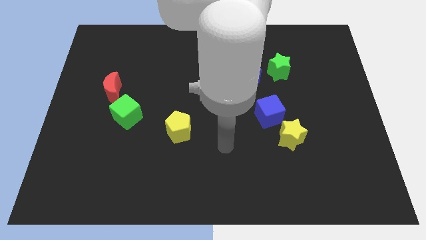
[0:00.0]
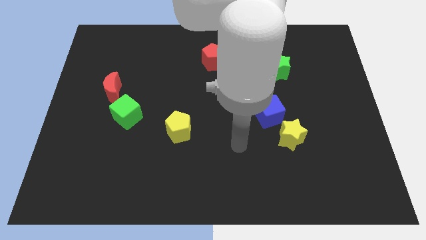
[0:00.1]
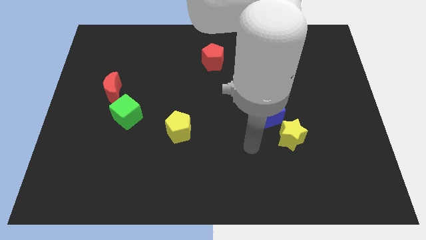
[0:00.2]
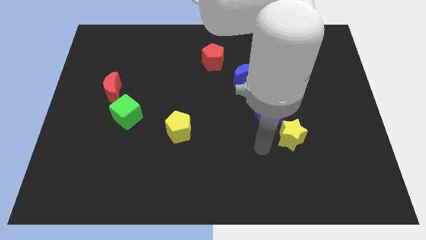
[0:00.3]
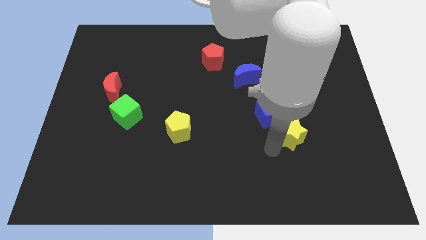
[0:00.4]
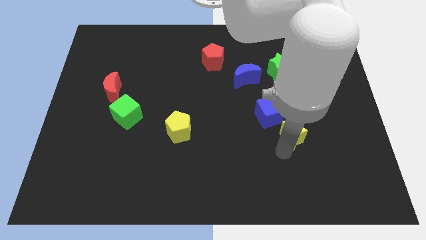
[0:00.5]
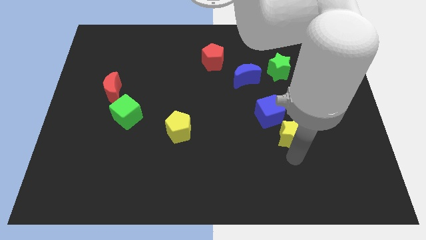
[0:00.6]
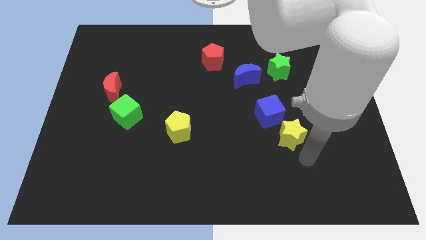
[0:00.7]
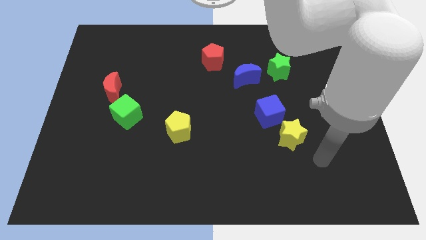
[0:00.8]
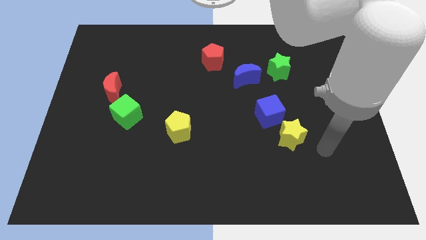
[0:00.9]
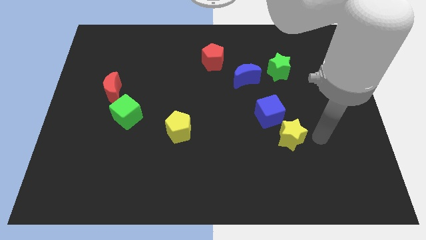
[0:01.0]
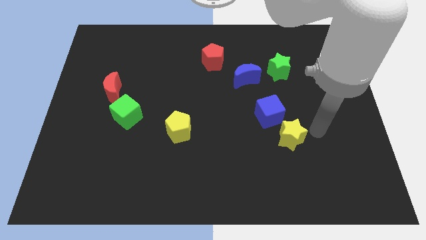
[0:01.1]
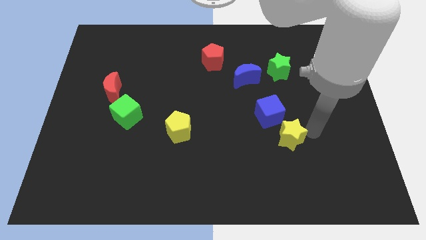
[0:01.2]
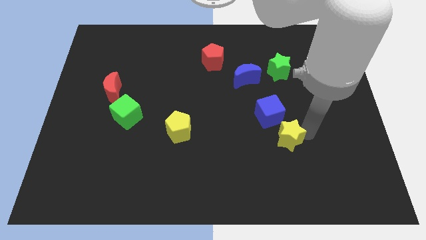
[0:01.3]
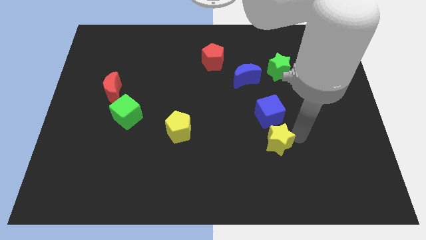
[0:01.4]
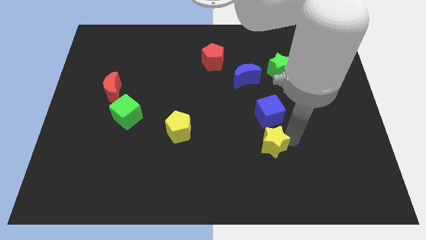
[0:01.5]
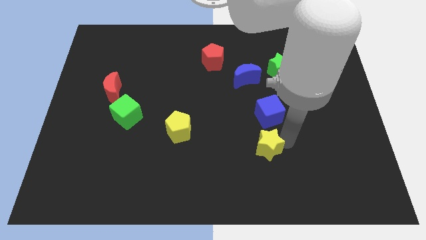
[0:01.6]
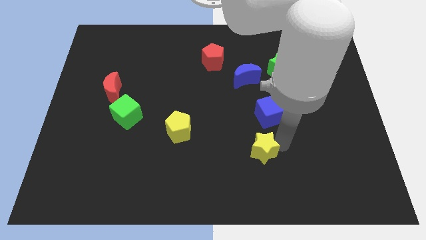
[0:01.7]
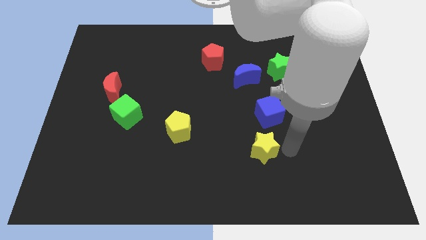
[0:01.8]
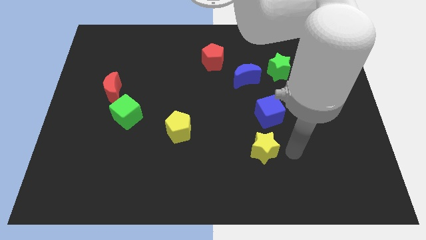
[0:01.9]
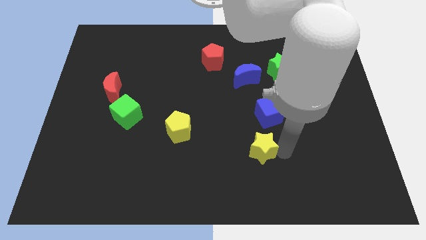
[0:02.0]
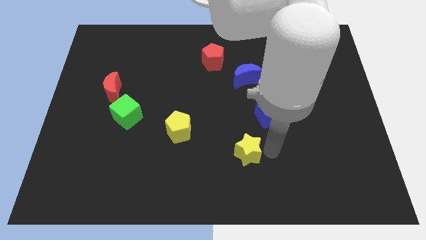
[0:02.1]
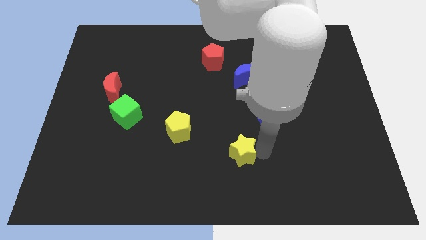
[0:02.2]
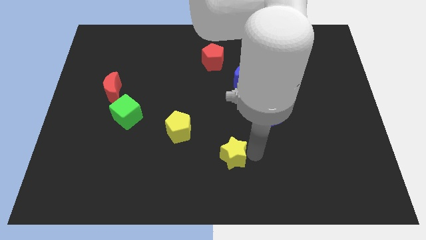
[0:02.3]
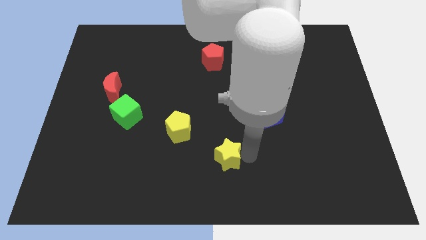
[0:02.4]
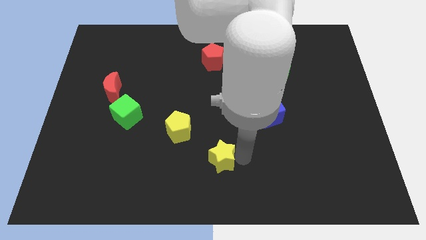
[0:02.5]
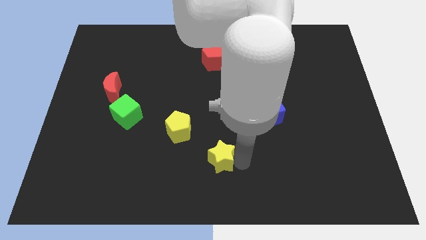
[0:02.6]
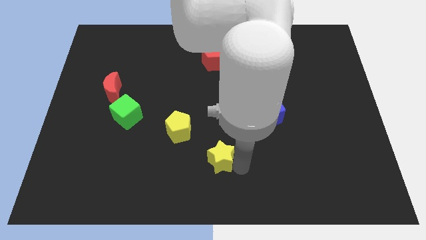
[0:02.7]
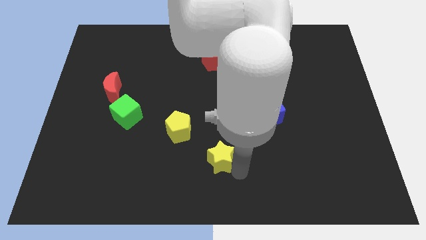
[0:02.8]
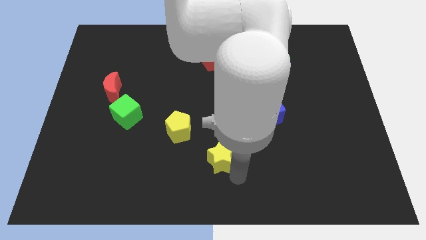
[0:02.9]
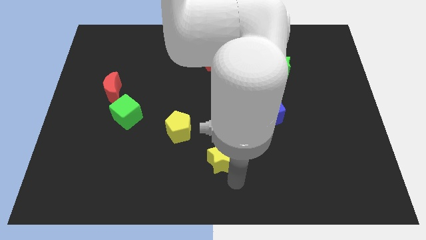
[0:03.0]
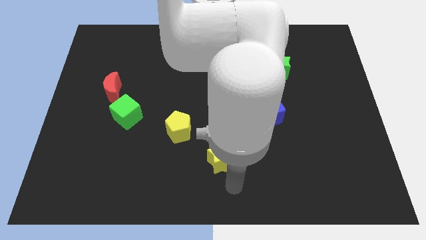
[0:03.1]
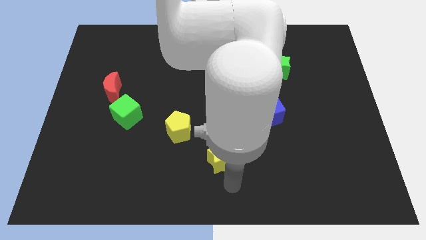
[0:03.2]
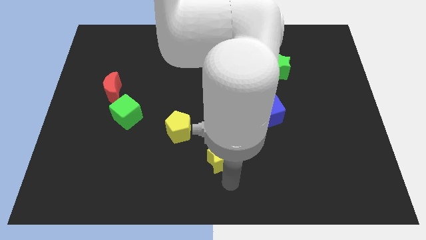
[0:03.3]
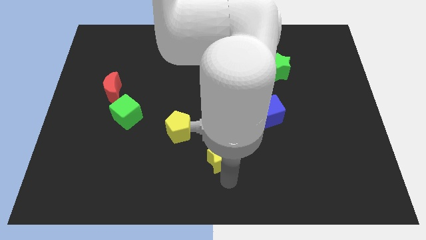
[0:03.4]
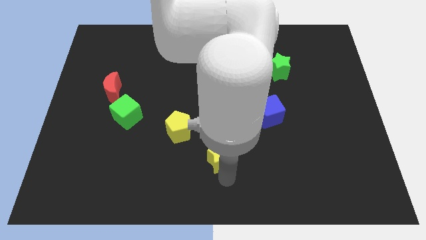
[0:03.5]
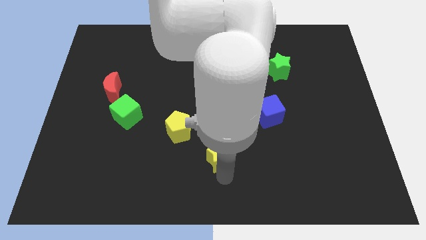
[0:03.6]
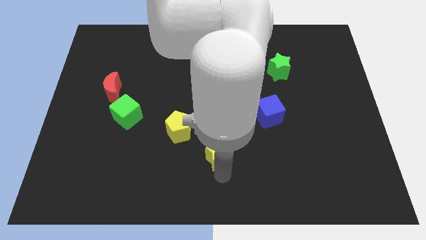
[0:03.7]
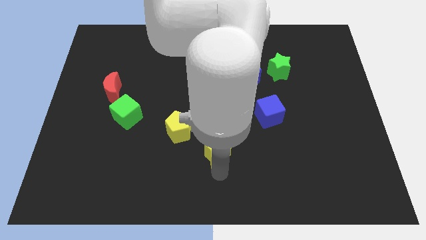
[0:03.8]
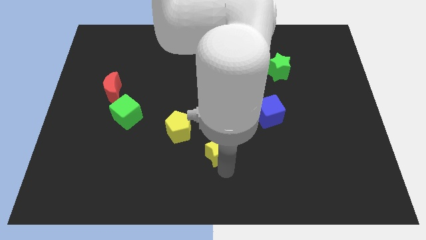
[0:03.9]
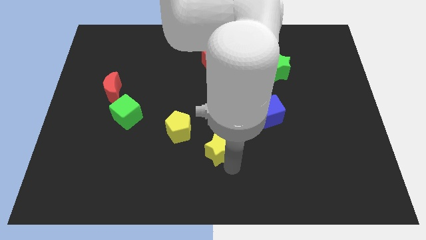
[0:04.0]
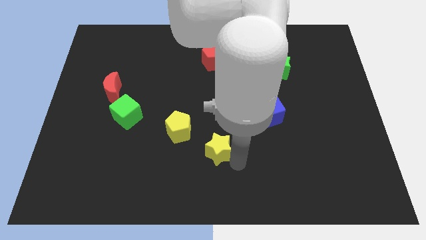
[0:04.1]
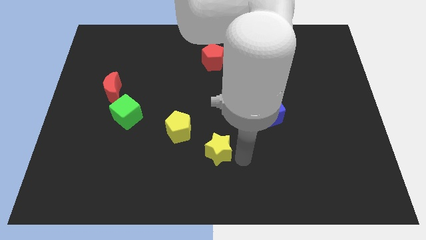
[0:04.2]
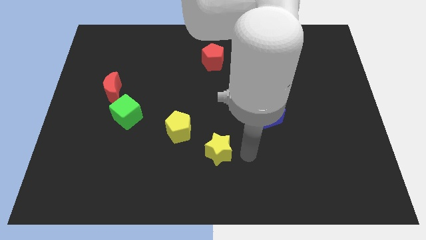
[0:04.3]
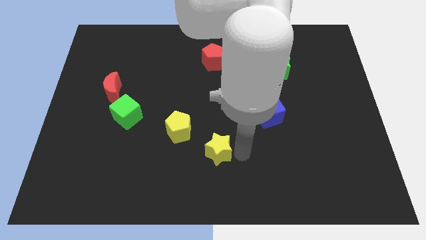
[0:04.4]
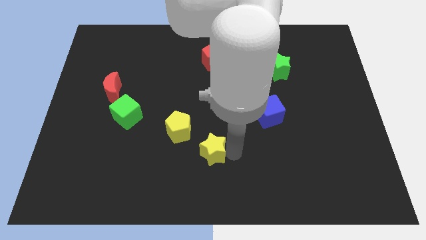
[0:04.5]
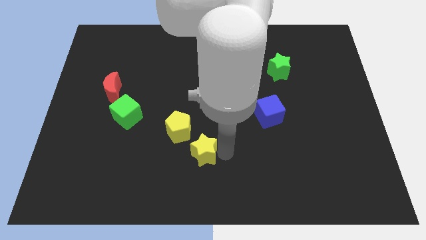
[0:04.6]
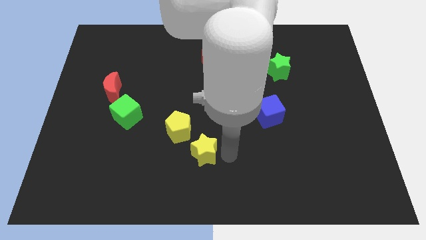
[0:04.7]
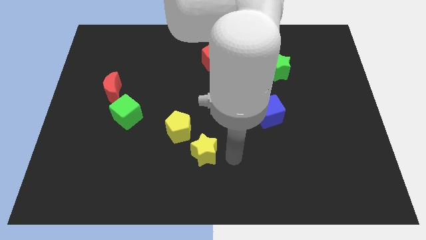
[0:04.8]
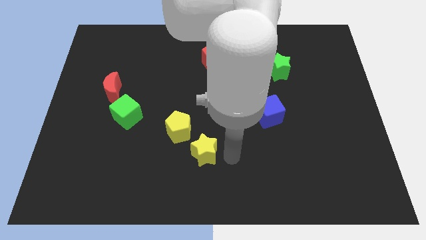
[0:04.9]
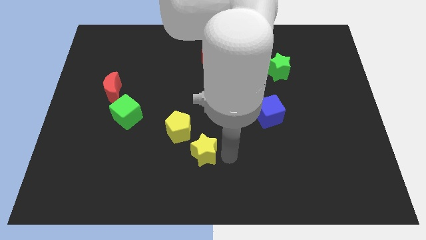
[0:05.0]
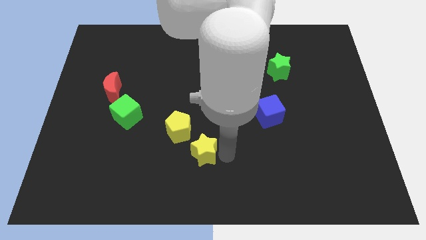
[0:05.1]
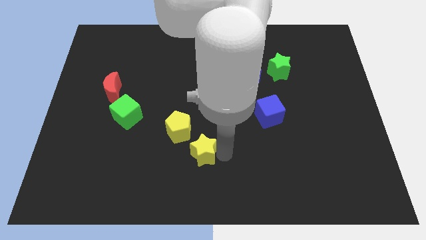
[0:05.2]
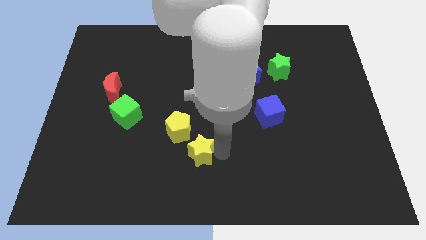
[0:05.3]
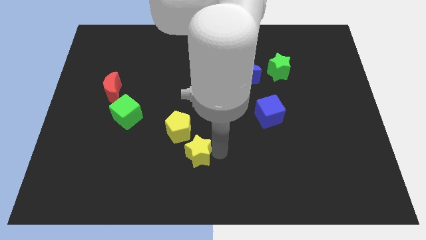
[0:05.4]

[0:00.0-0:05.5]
push the yellow star to the left

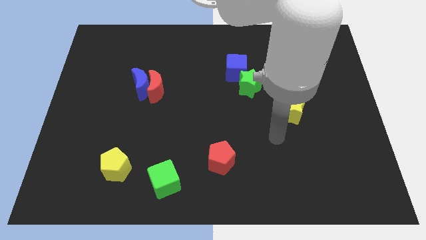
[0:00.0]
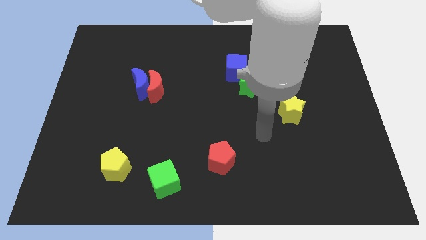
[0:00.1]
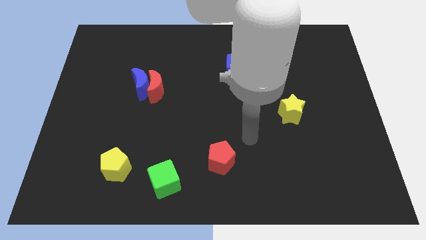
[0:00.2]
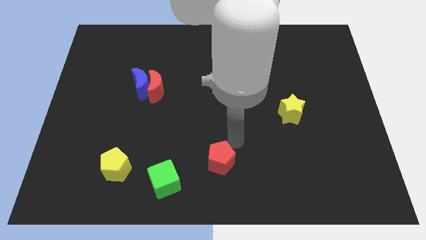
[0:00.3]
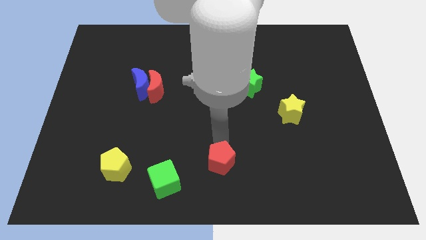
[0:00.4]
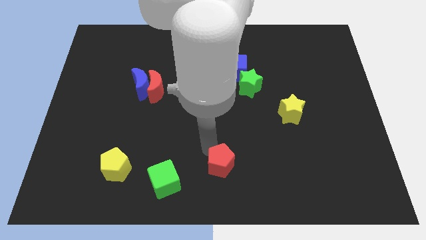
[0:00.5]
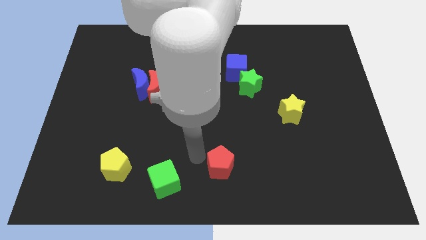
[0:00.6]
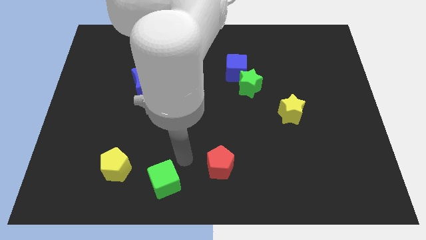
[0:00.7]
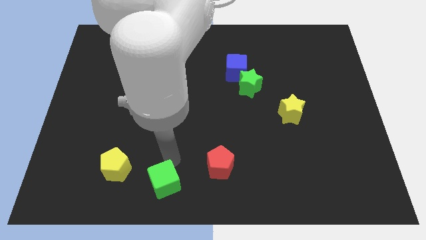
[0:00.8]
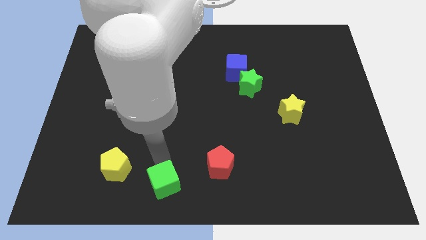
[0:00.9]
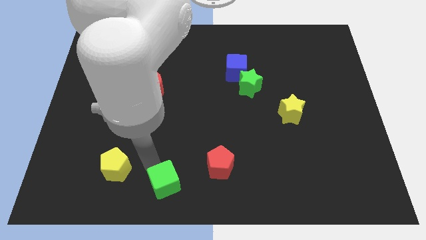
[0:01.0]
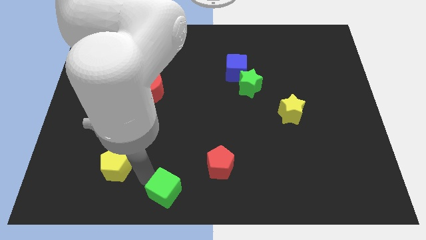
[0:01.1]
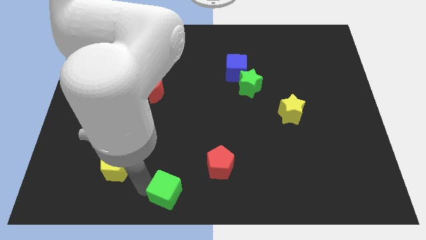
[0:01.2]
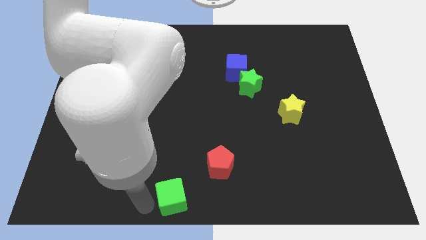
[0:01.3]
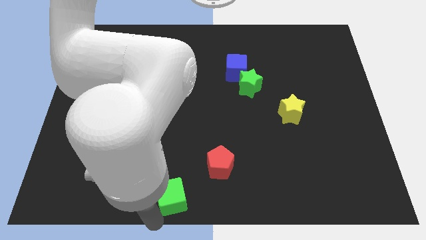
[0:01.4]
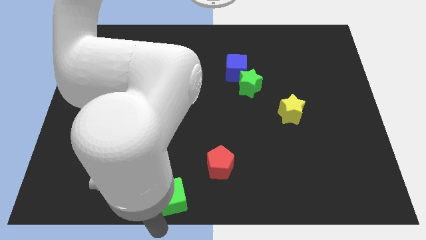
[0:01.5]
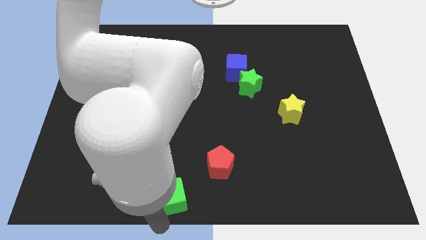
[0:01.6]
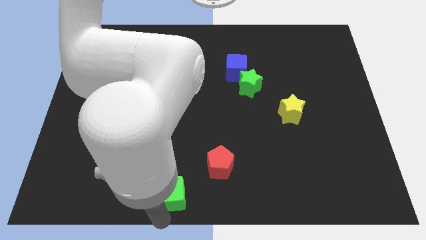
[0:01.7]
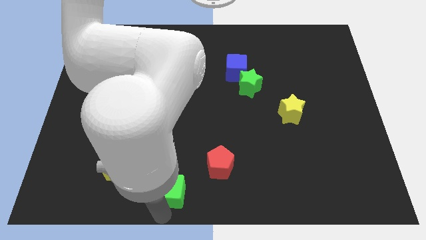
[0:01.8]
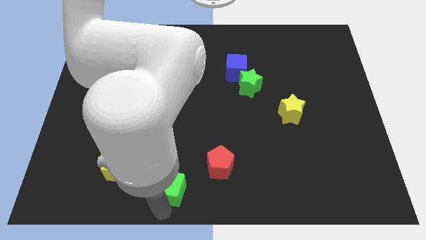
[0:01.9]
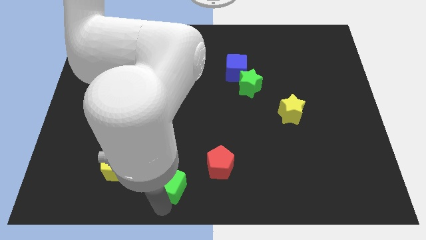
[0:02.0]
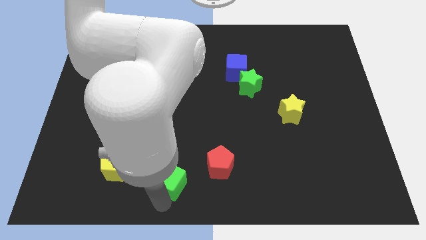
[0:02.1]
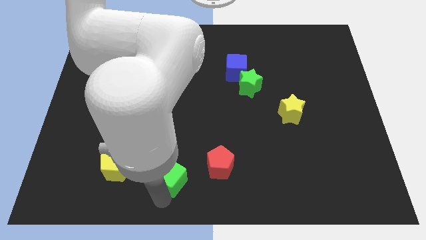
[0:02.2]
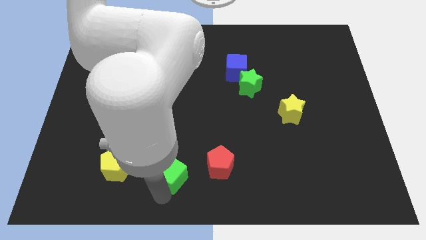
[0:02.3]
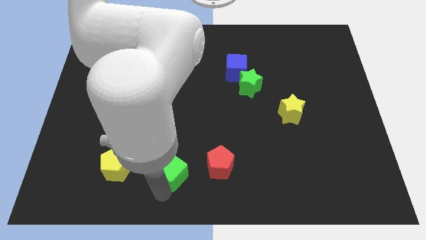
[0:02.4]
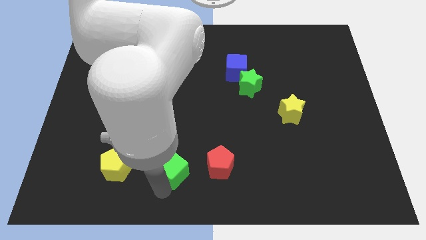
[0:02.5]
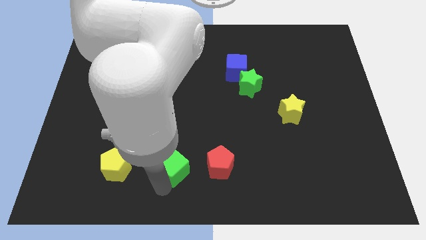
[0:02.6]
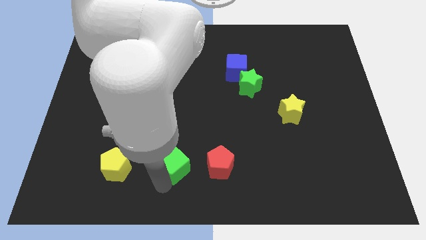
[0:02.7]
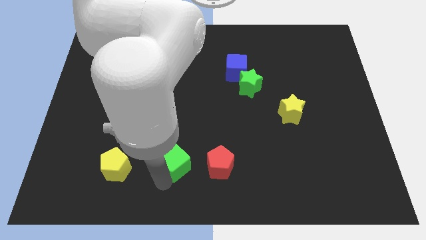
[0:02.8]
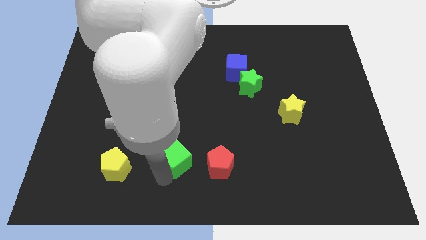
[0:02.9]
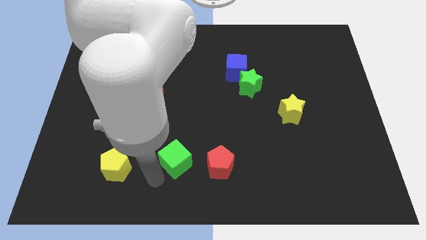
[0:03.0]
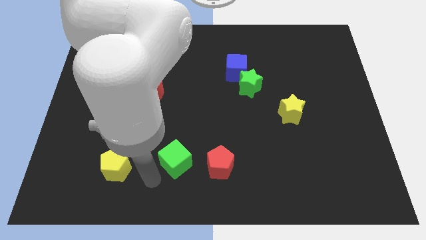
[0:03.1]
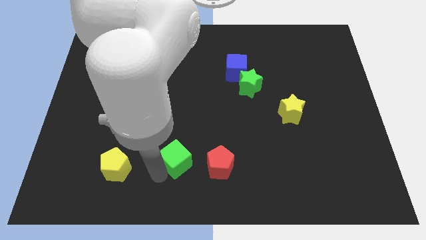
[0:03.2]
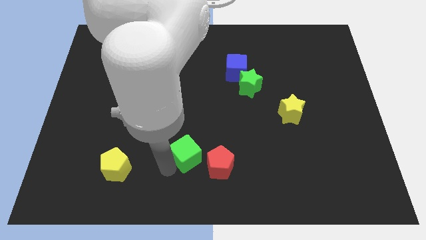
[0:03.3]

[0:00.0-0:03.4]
move the green cube a bit upwards and to the right diagonally
